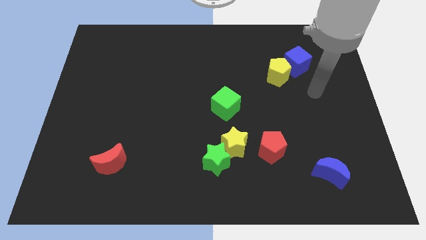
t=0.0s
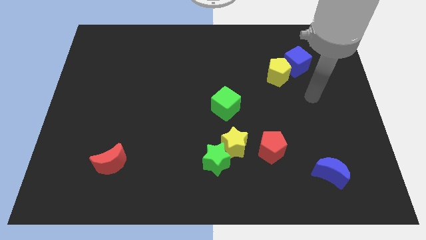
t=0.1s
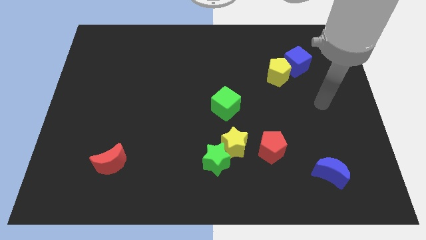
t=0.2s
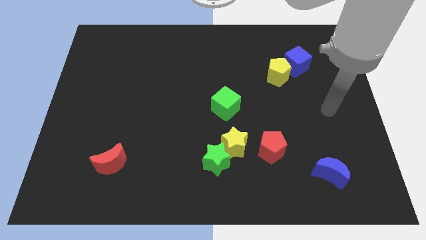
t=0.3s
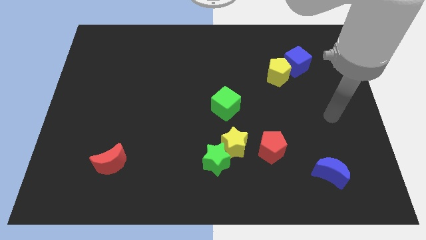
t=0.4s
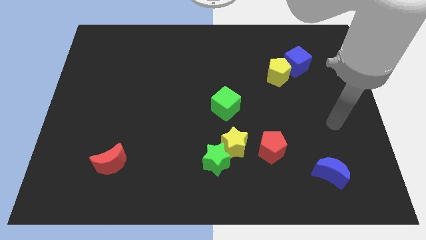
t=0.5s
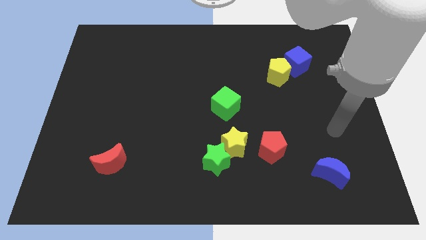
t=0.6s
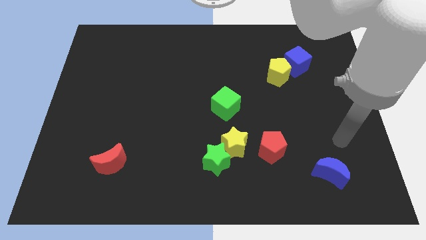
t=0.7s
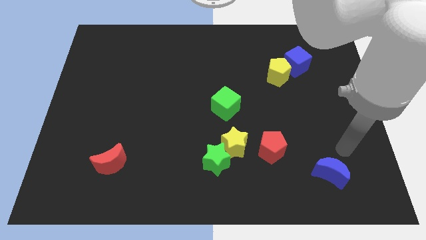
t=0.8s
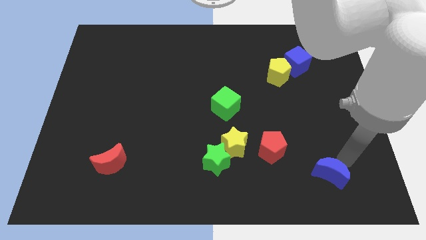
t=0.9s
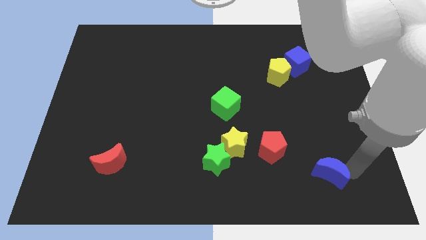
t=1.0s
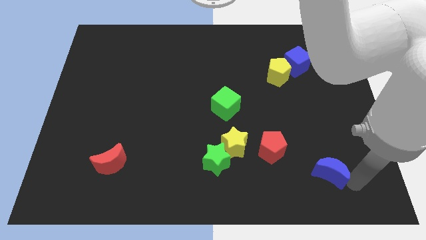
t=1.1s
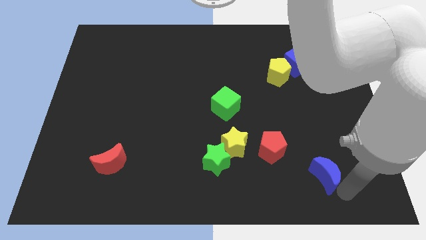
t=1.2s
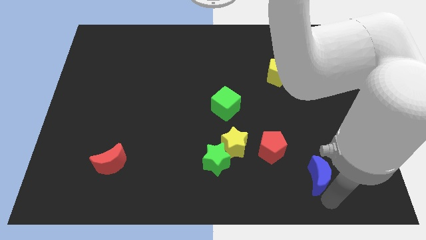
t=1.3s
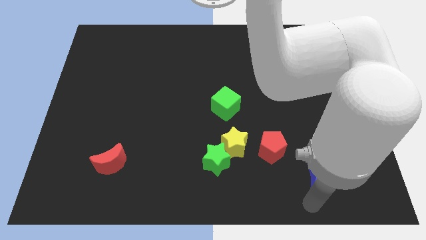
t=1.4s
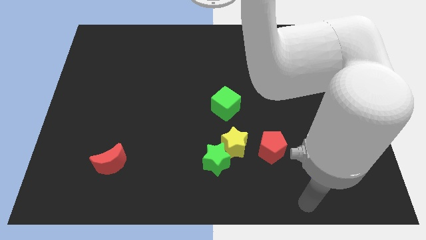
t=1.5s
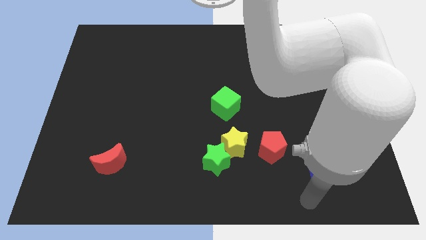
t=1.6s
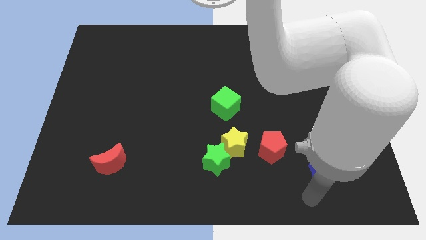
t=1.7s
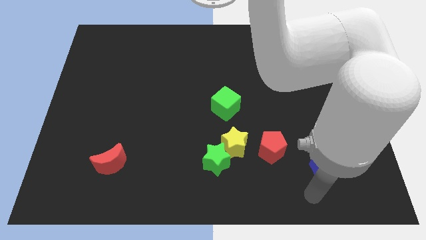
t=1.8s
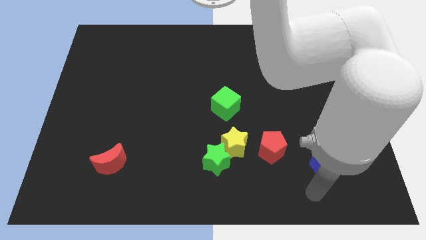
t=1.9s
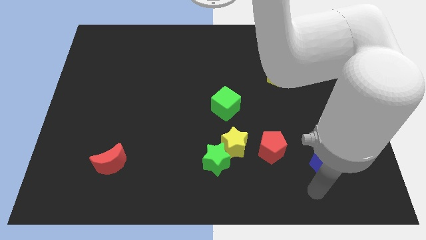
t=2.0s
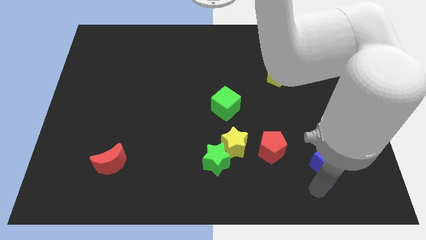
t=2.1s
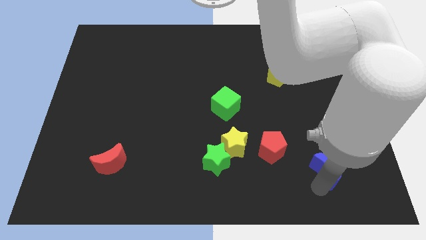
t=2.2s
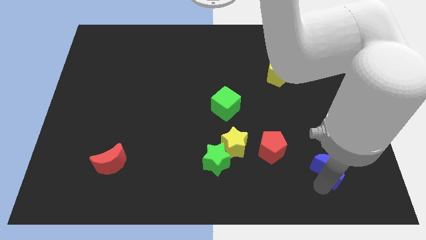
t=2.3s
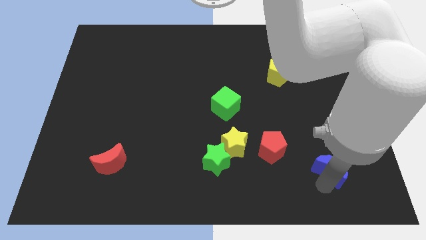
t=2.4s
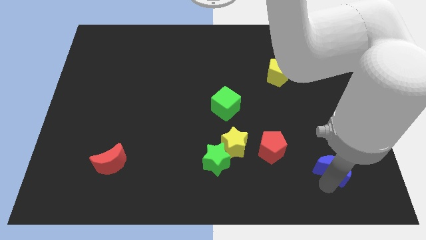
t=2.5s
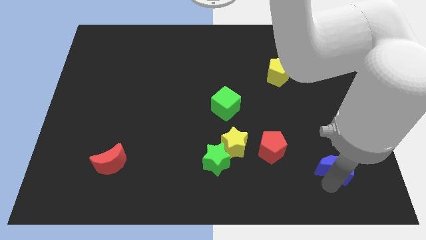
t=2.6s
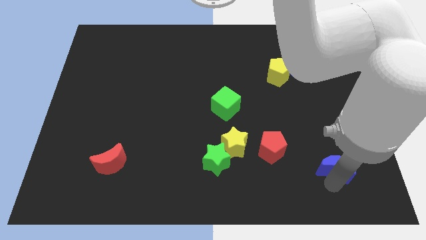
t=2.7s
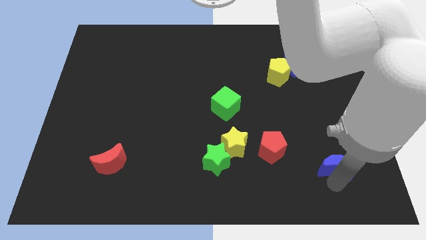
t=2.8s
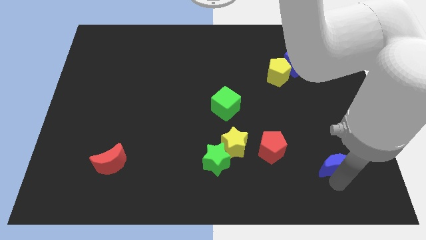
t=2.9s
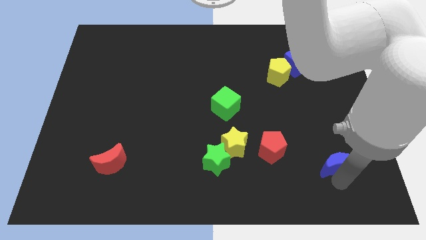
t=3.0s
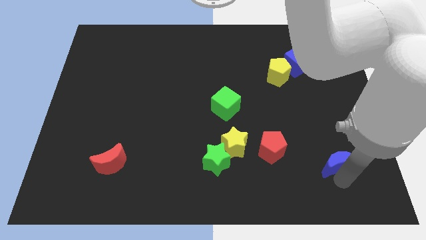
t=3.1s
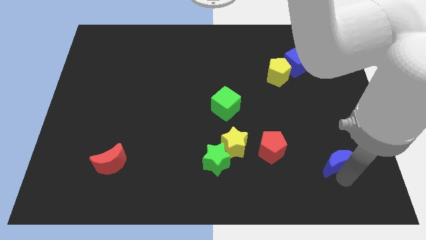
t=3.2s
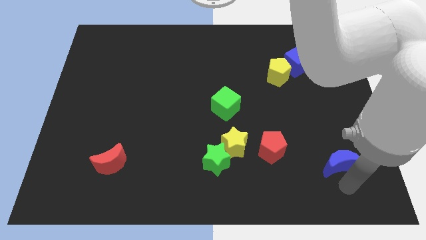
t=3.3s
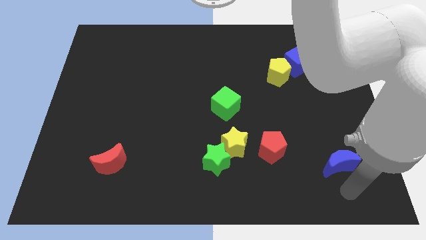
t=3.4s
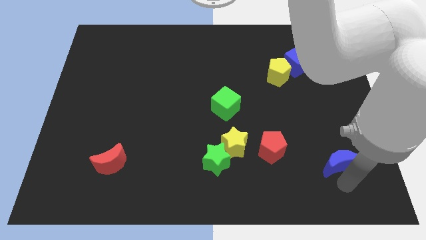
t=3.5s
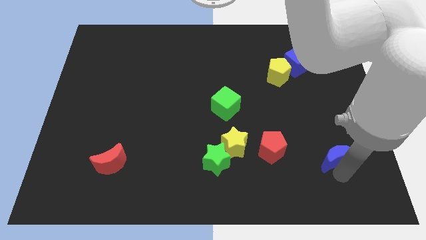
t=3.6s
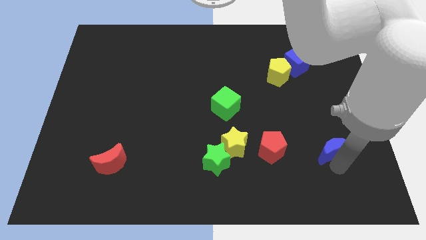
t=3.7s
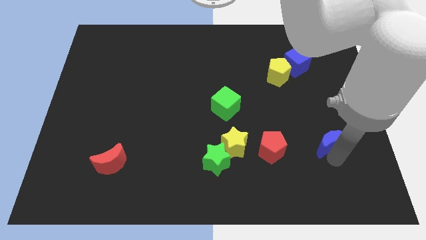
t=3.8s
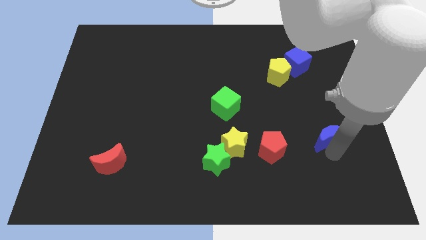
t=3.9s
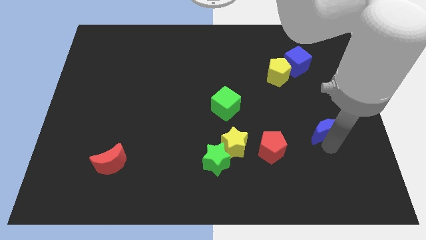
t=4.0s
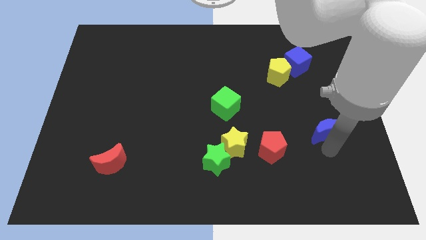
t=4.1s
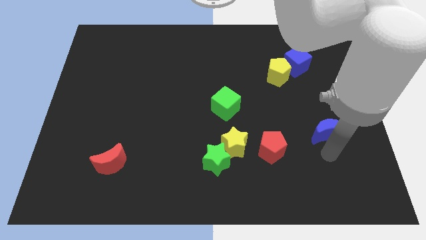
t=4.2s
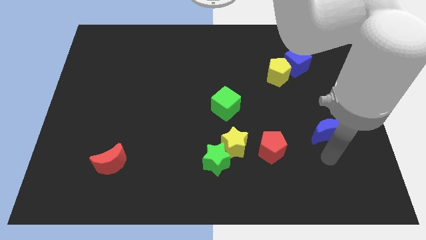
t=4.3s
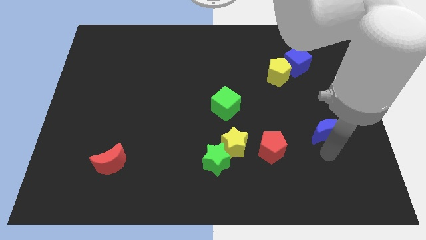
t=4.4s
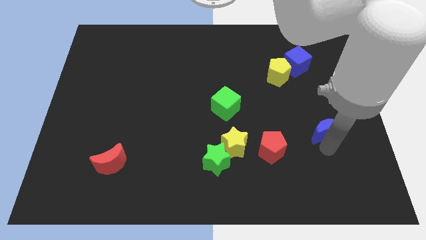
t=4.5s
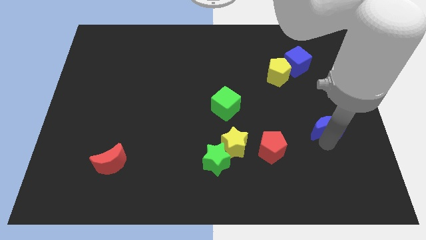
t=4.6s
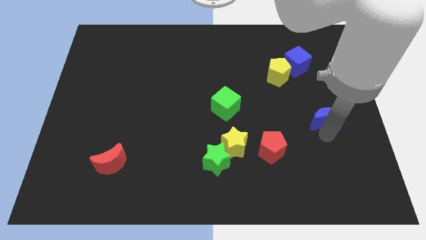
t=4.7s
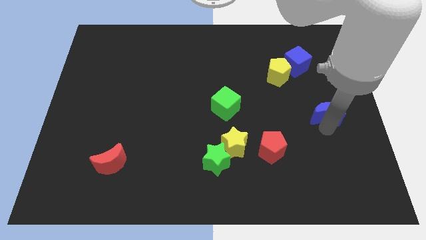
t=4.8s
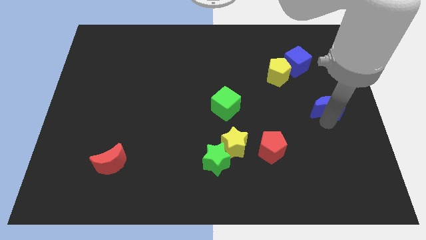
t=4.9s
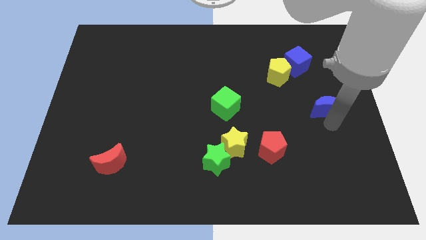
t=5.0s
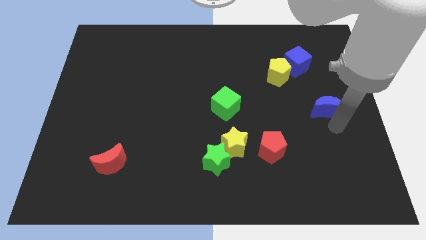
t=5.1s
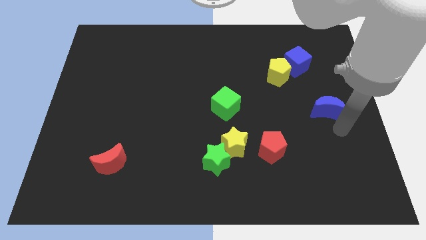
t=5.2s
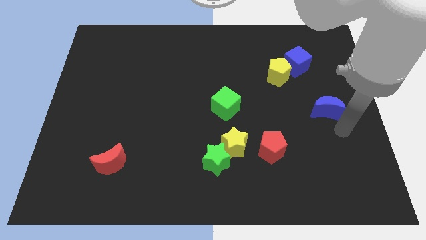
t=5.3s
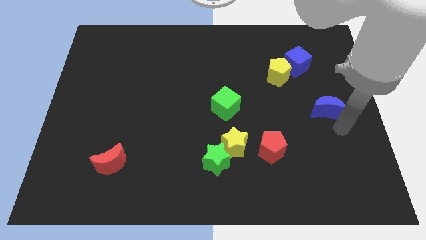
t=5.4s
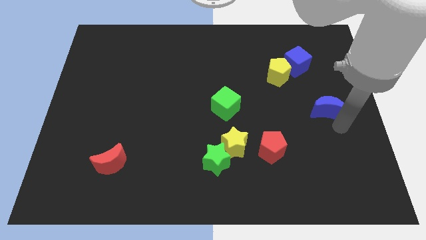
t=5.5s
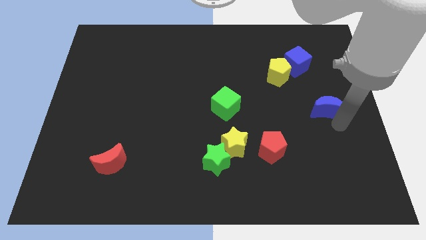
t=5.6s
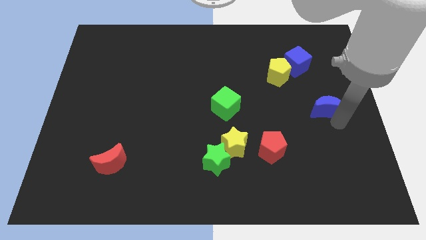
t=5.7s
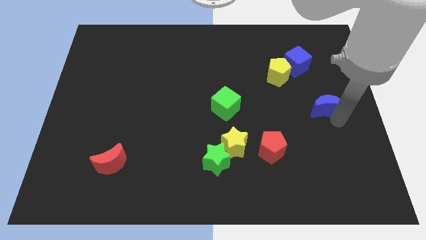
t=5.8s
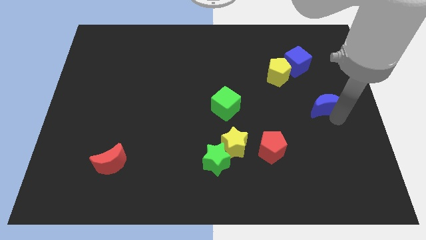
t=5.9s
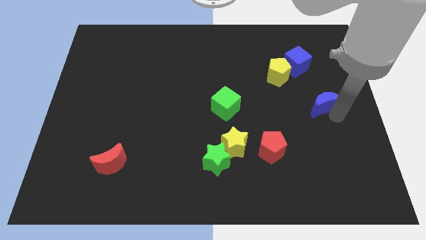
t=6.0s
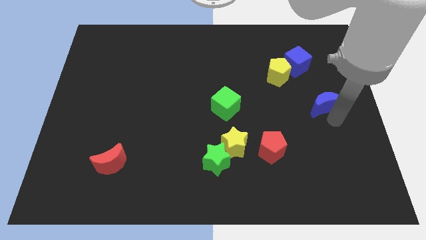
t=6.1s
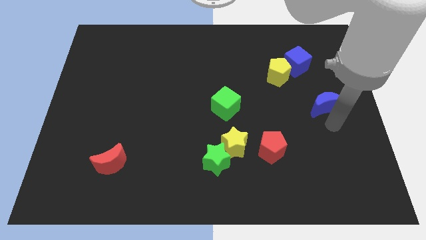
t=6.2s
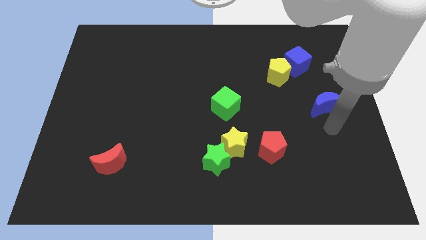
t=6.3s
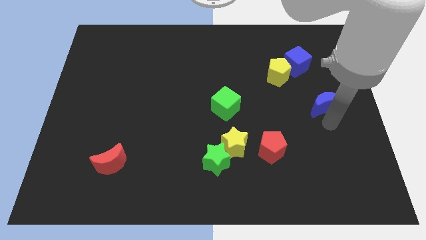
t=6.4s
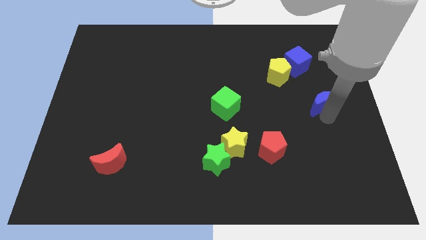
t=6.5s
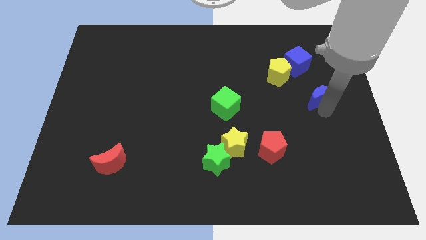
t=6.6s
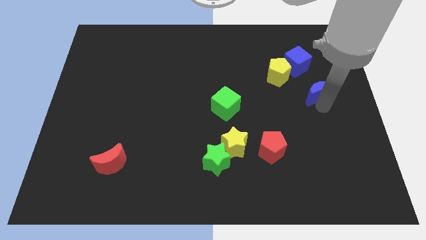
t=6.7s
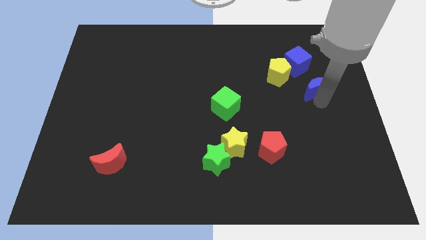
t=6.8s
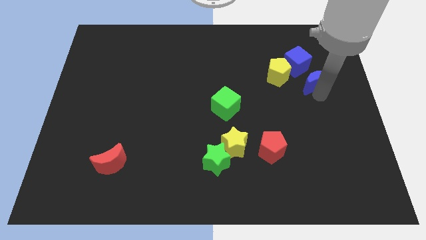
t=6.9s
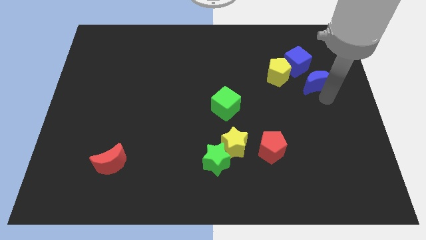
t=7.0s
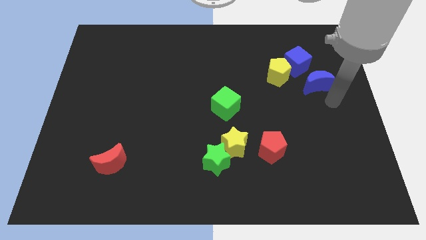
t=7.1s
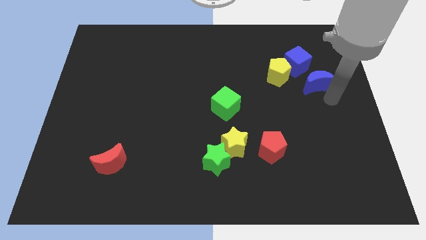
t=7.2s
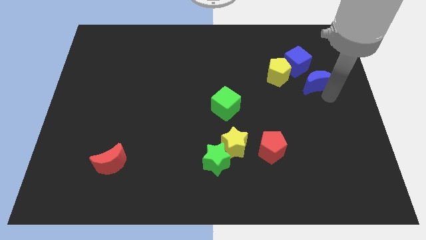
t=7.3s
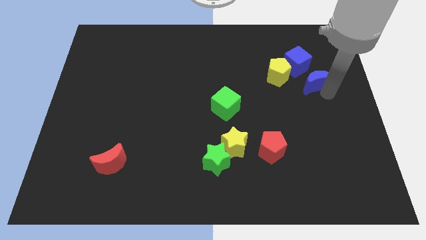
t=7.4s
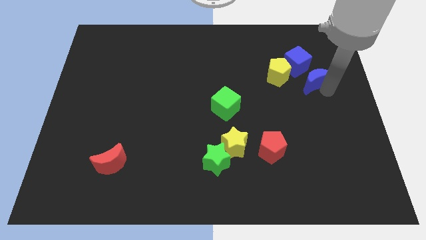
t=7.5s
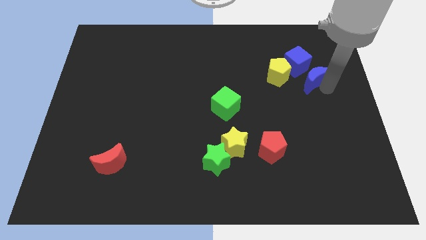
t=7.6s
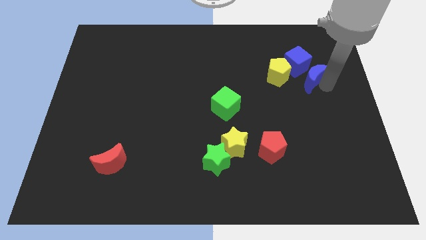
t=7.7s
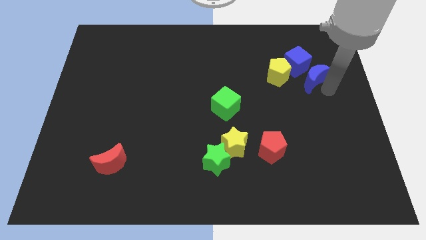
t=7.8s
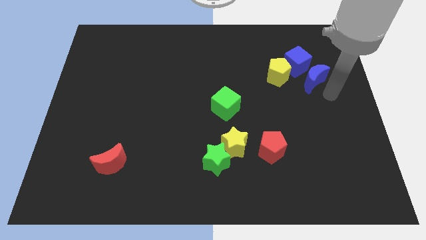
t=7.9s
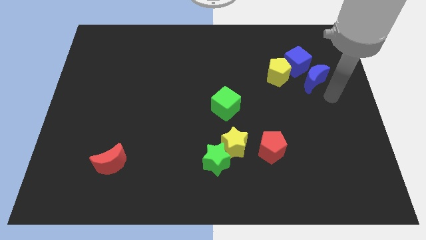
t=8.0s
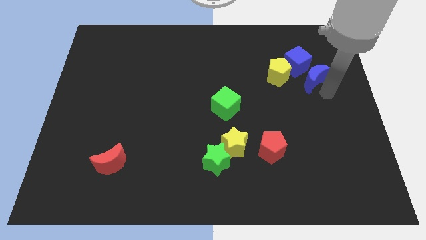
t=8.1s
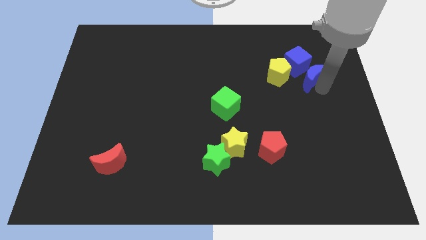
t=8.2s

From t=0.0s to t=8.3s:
move the blue moon close to the blue cube
